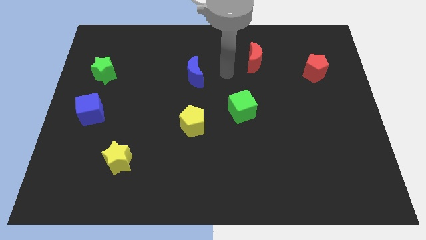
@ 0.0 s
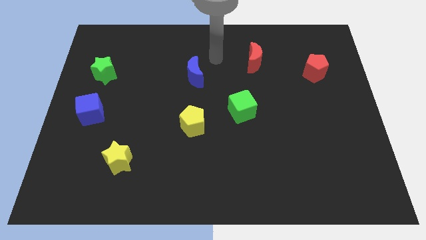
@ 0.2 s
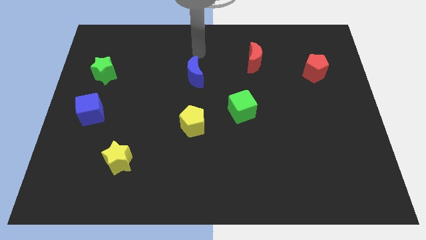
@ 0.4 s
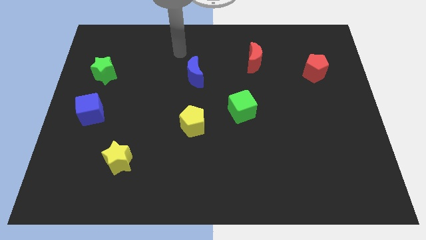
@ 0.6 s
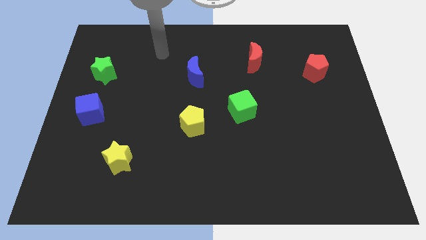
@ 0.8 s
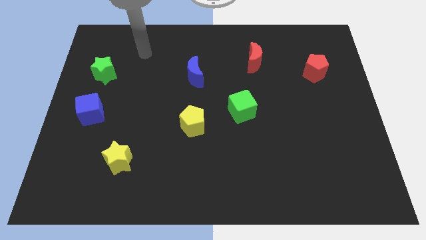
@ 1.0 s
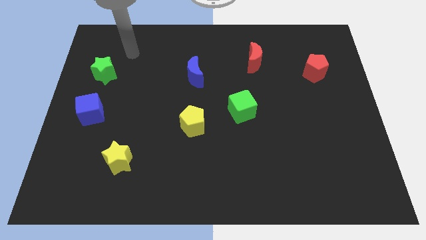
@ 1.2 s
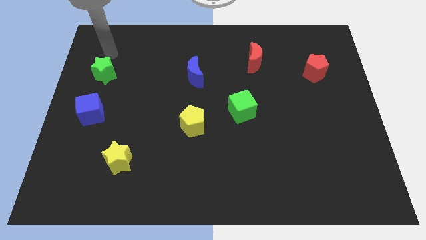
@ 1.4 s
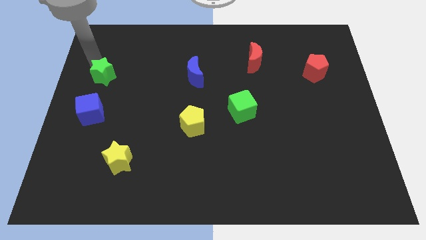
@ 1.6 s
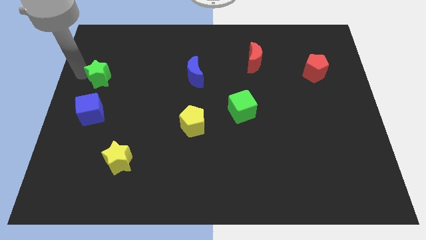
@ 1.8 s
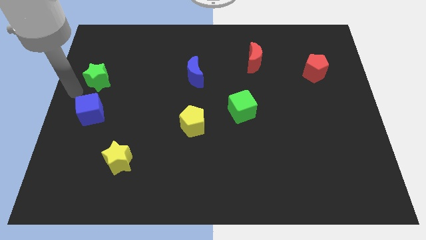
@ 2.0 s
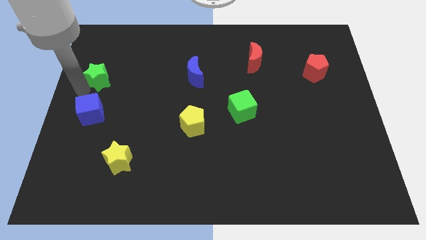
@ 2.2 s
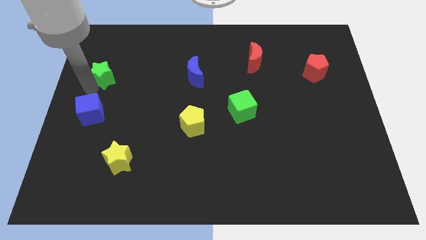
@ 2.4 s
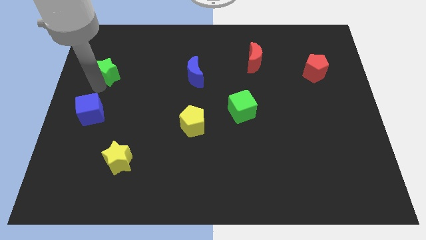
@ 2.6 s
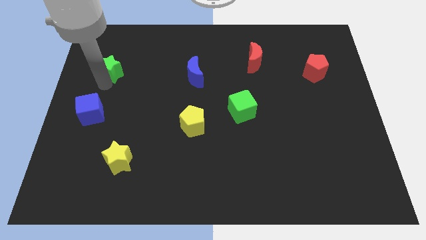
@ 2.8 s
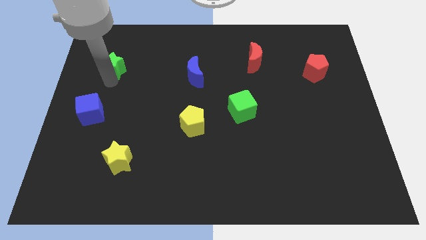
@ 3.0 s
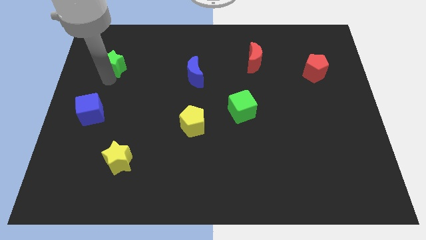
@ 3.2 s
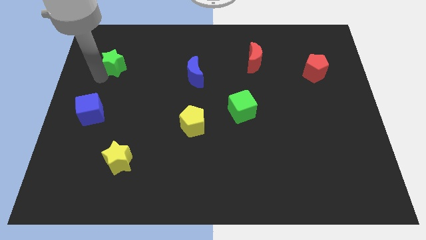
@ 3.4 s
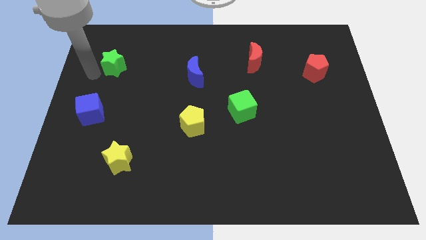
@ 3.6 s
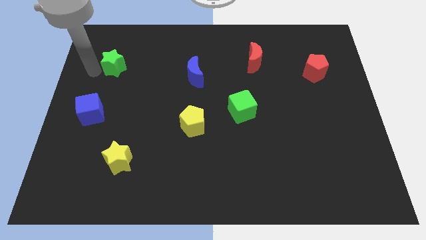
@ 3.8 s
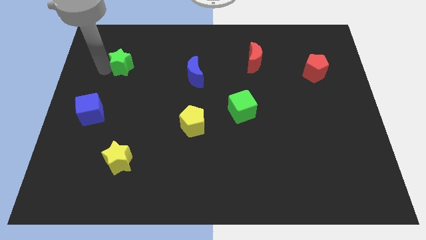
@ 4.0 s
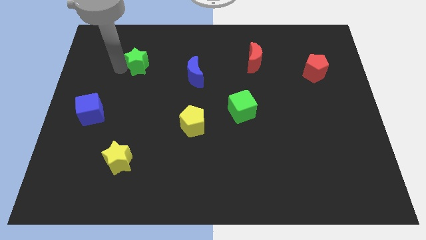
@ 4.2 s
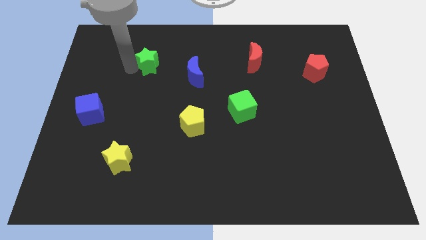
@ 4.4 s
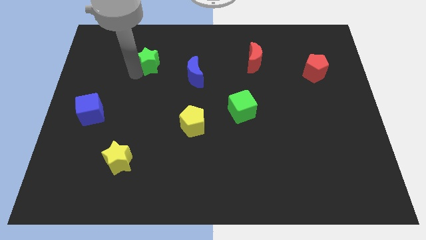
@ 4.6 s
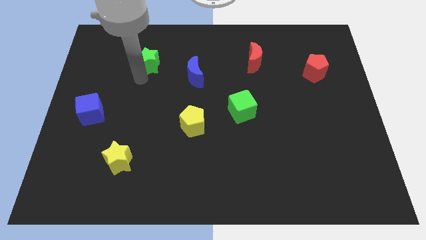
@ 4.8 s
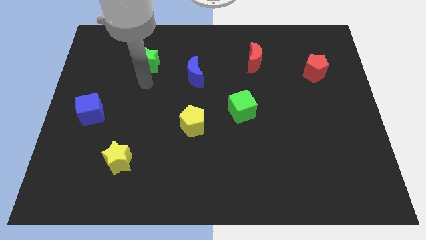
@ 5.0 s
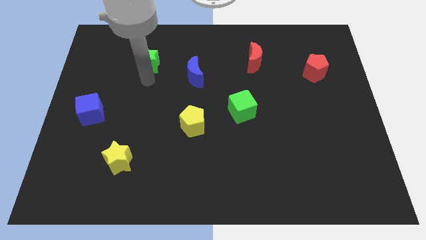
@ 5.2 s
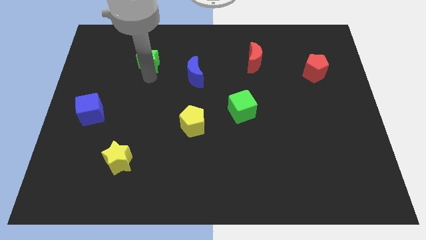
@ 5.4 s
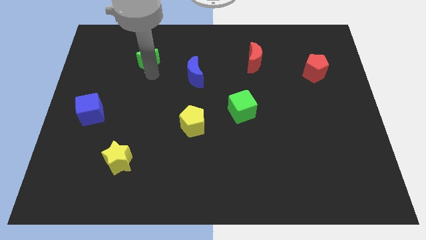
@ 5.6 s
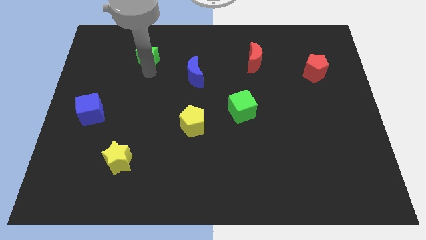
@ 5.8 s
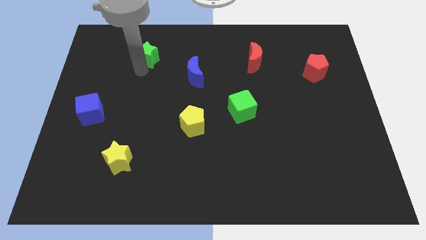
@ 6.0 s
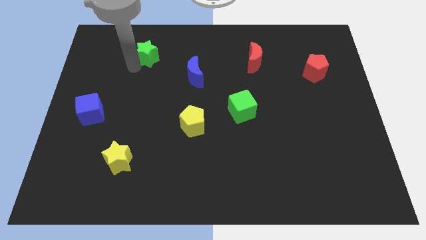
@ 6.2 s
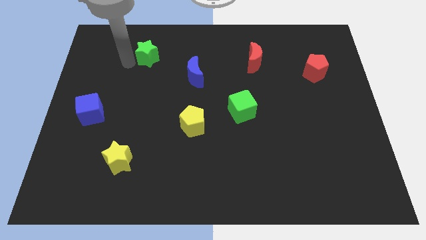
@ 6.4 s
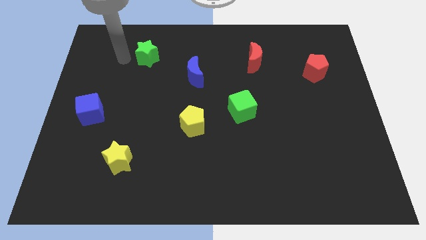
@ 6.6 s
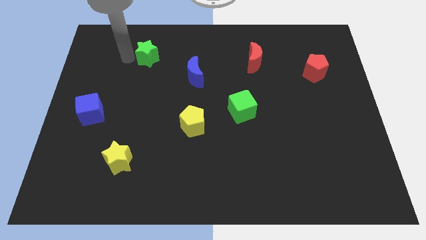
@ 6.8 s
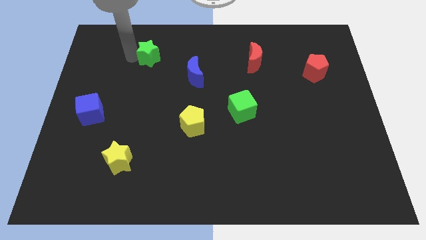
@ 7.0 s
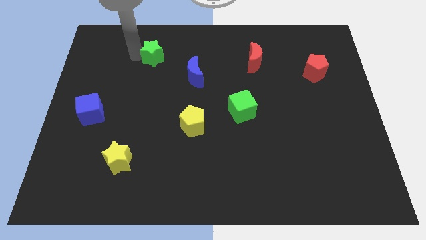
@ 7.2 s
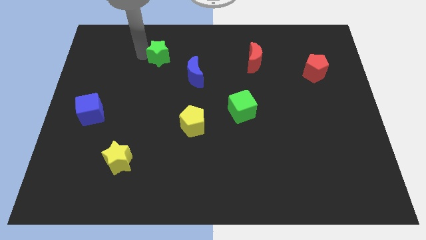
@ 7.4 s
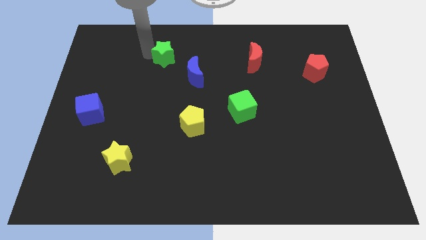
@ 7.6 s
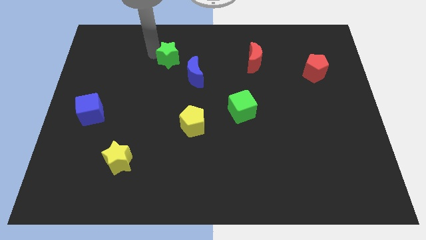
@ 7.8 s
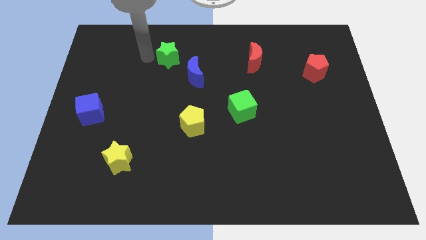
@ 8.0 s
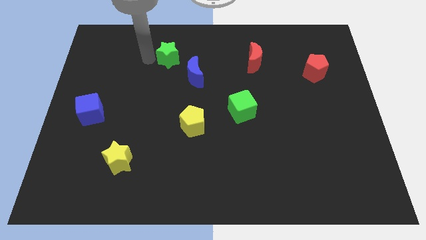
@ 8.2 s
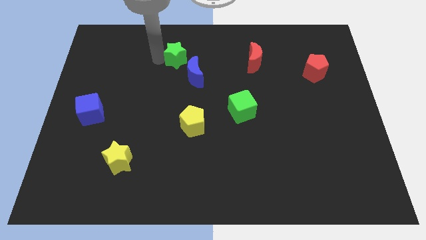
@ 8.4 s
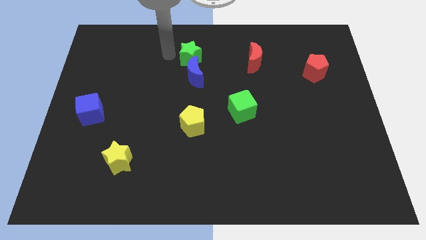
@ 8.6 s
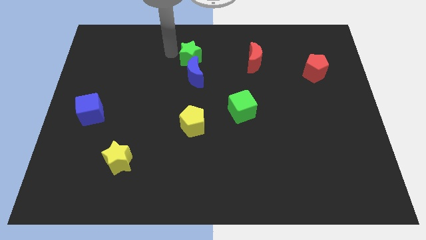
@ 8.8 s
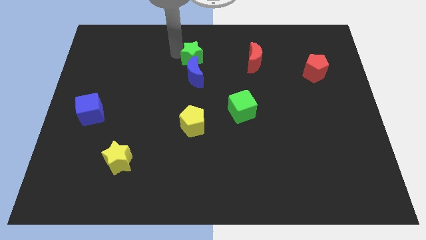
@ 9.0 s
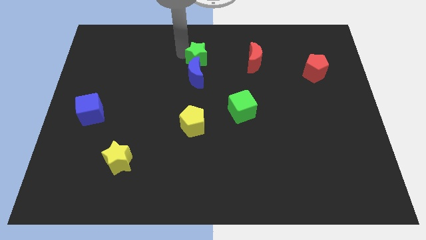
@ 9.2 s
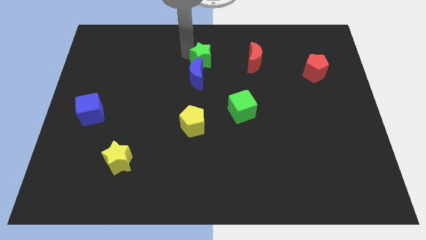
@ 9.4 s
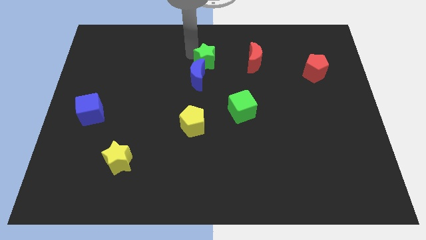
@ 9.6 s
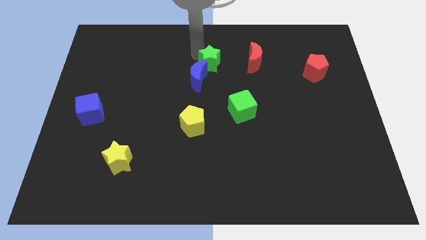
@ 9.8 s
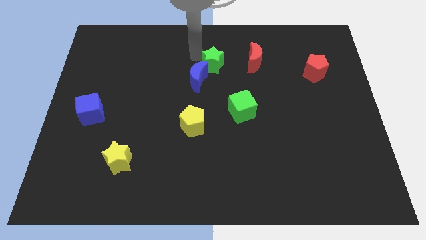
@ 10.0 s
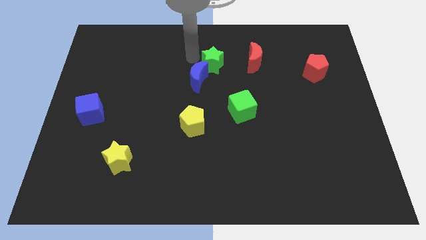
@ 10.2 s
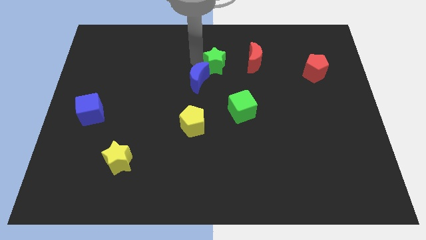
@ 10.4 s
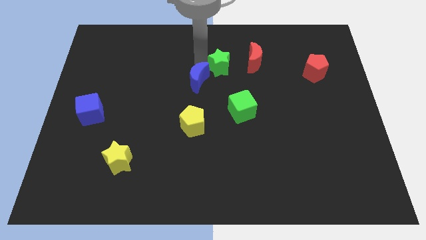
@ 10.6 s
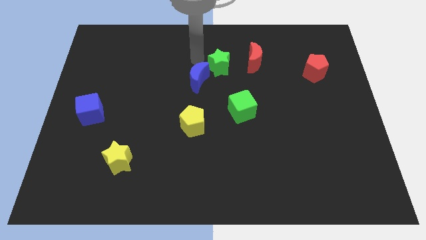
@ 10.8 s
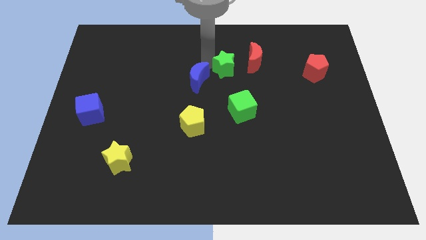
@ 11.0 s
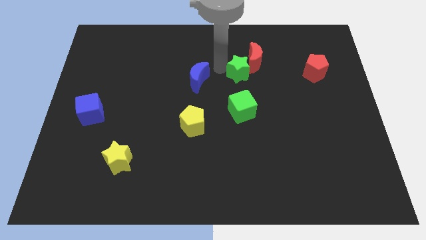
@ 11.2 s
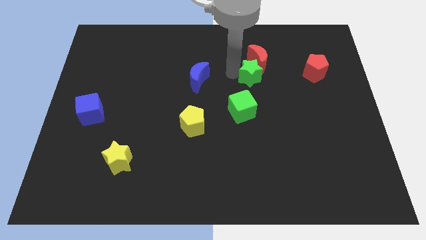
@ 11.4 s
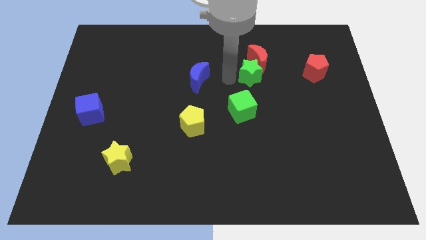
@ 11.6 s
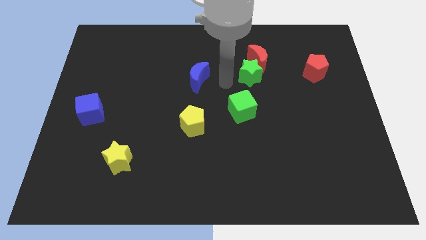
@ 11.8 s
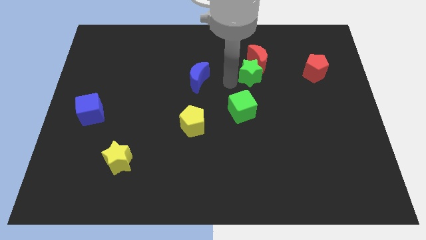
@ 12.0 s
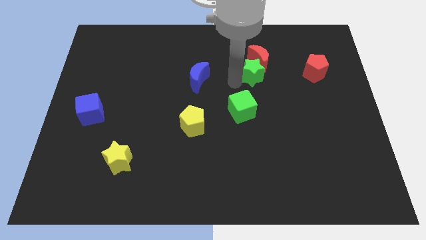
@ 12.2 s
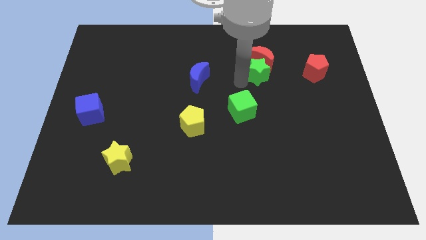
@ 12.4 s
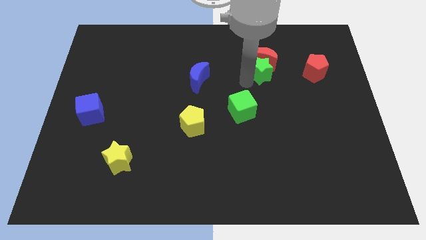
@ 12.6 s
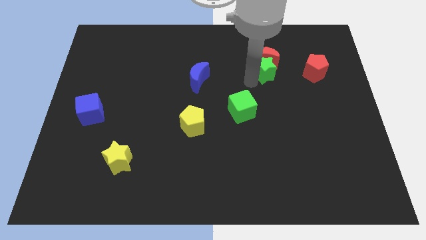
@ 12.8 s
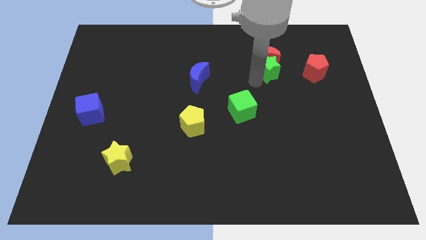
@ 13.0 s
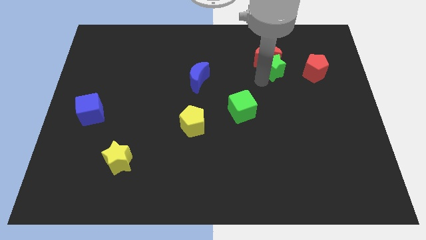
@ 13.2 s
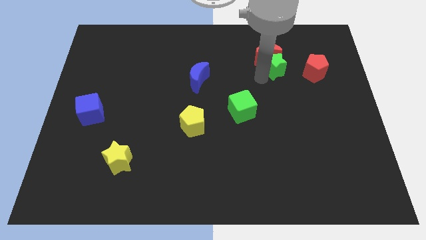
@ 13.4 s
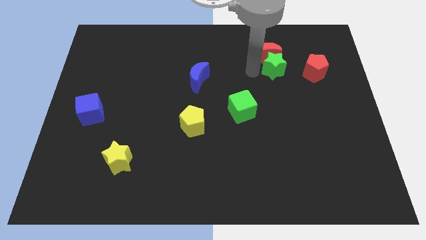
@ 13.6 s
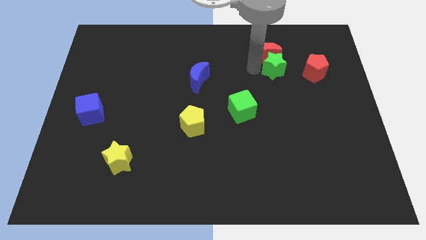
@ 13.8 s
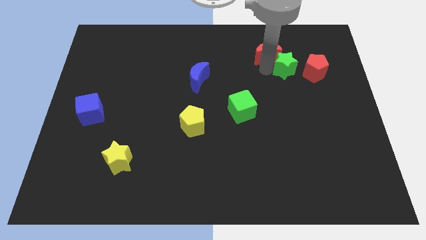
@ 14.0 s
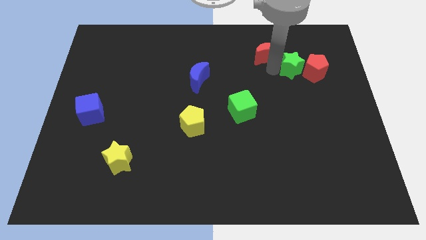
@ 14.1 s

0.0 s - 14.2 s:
push the green star towards the red pentagon

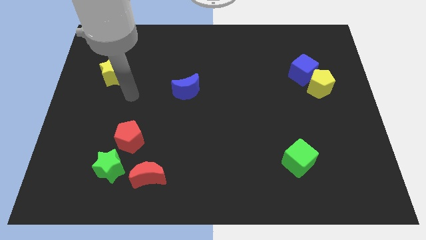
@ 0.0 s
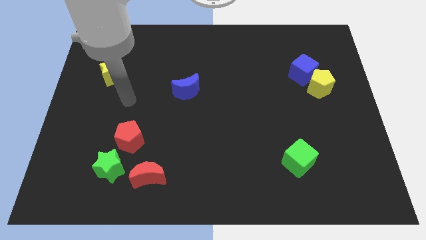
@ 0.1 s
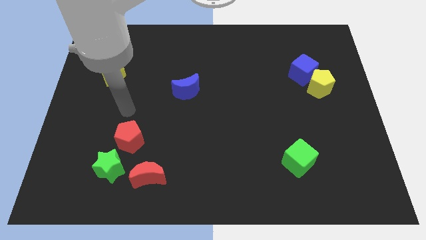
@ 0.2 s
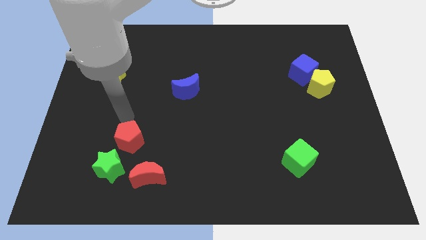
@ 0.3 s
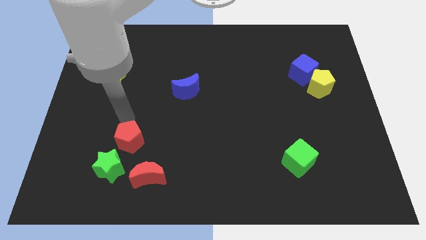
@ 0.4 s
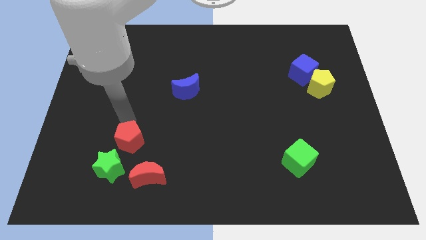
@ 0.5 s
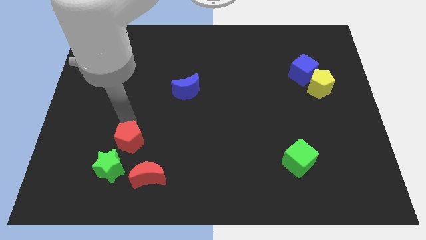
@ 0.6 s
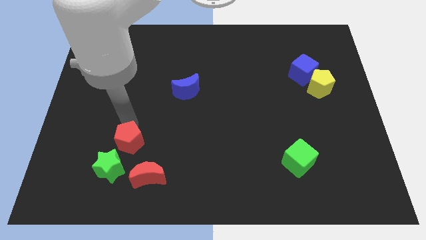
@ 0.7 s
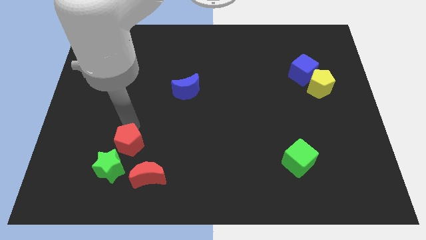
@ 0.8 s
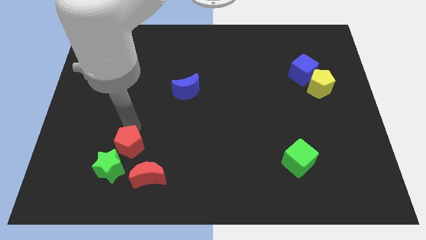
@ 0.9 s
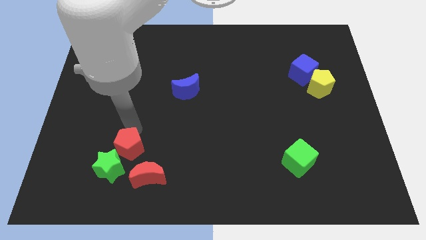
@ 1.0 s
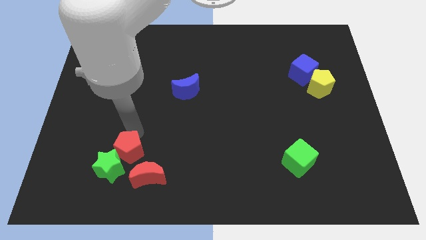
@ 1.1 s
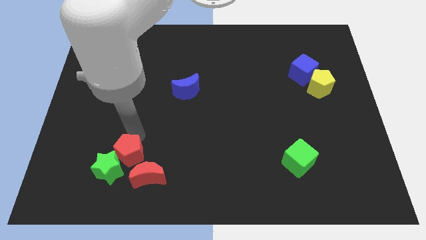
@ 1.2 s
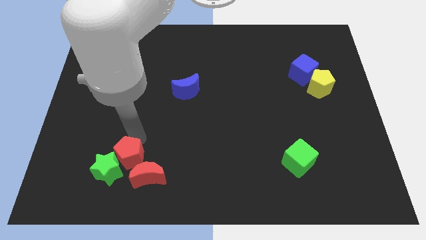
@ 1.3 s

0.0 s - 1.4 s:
push the red pentagon towards the red moon
